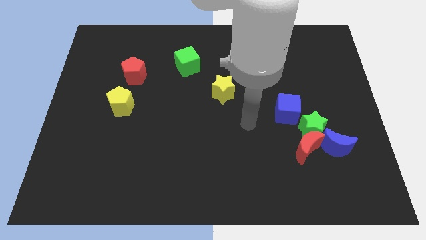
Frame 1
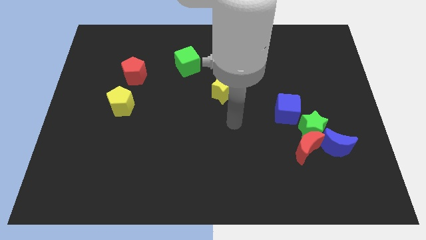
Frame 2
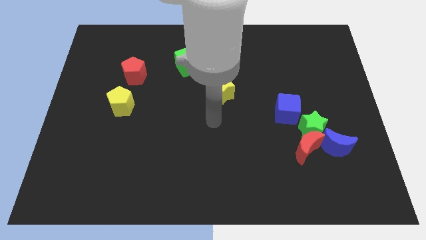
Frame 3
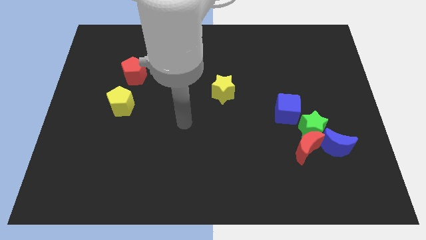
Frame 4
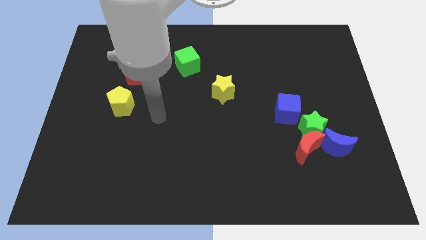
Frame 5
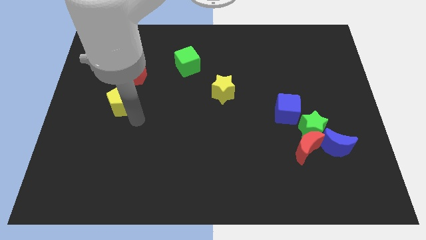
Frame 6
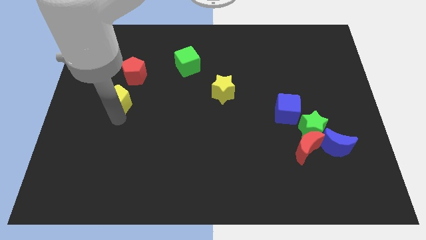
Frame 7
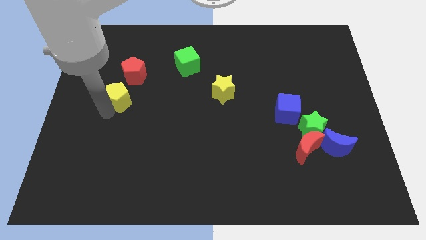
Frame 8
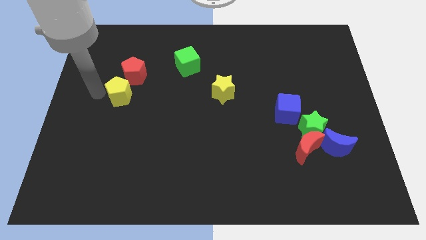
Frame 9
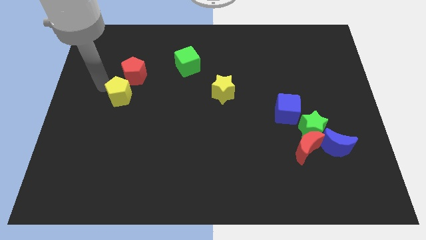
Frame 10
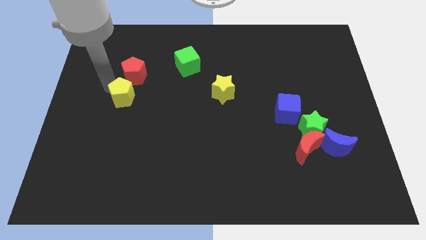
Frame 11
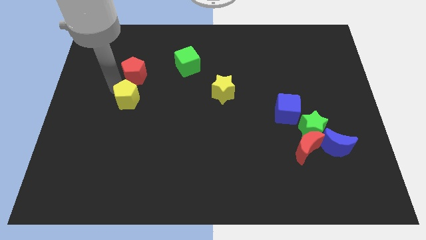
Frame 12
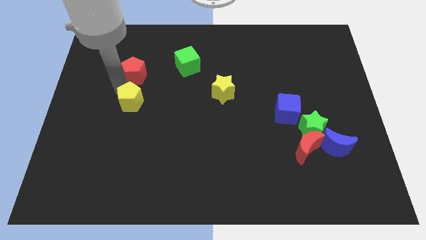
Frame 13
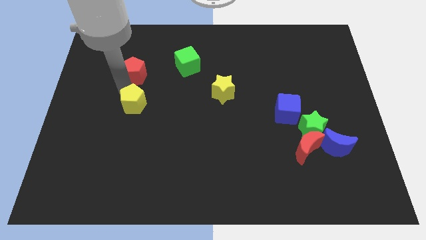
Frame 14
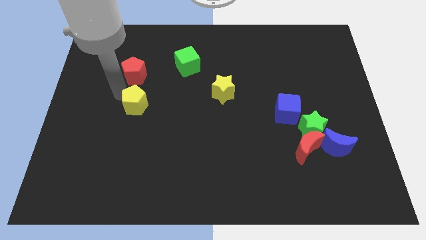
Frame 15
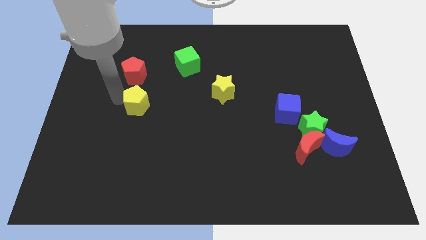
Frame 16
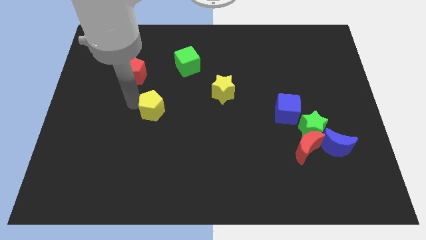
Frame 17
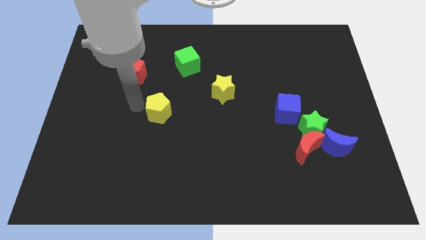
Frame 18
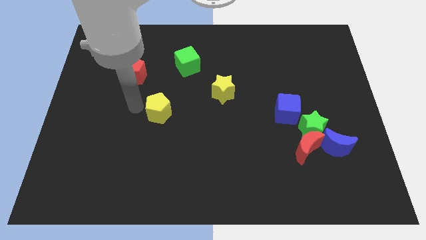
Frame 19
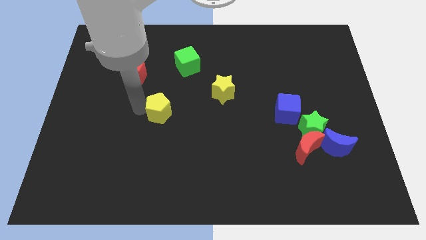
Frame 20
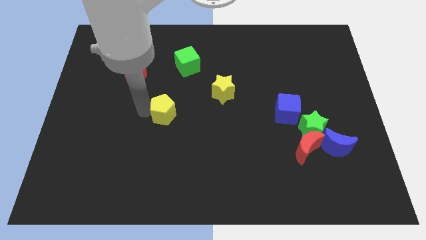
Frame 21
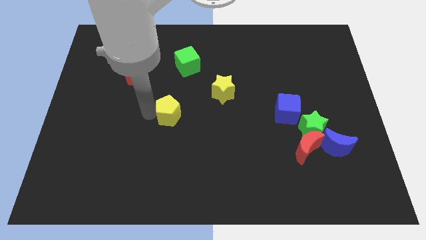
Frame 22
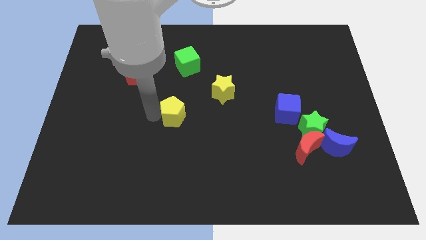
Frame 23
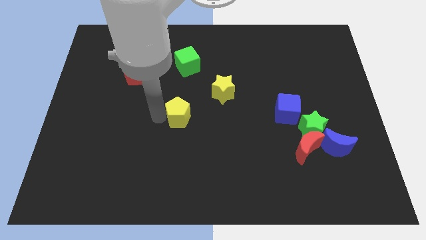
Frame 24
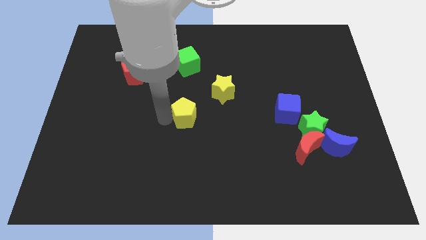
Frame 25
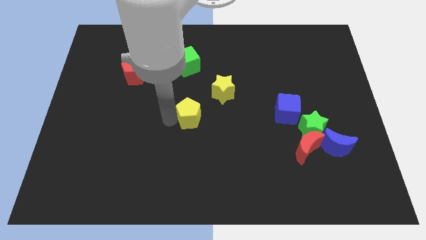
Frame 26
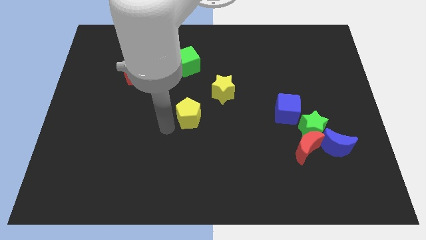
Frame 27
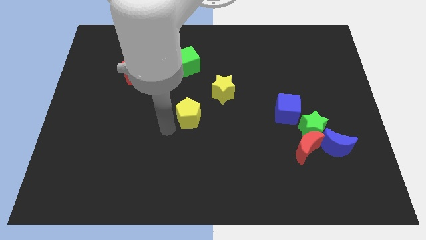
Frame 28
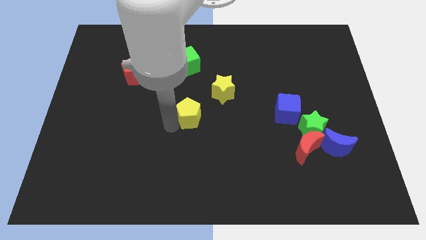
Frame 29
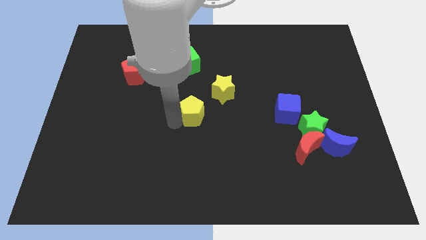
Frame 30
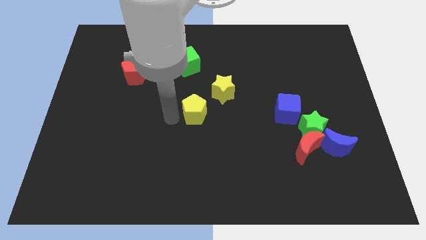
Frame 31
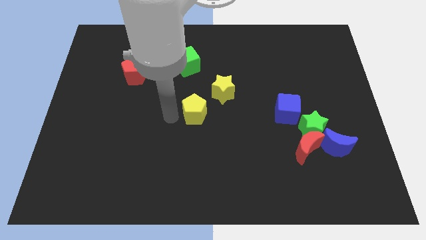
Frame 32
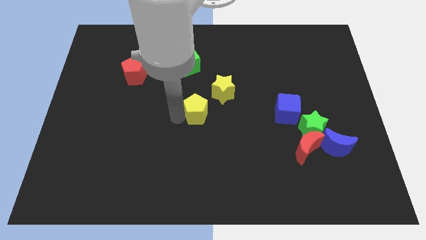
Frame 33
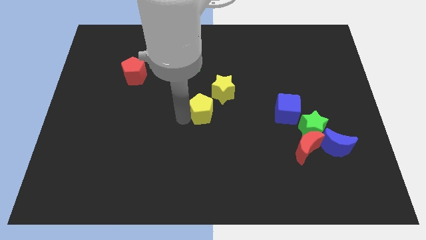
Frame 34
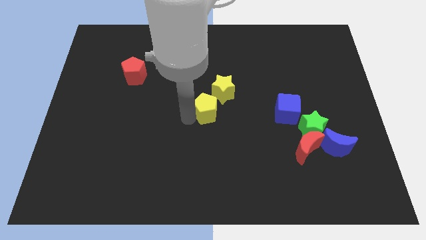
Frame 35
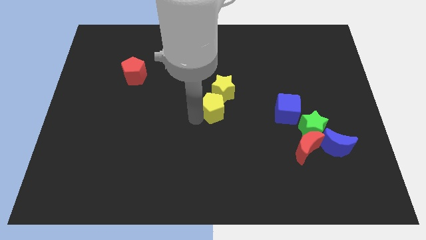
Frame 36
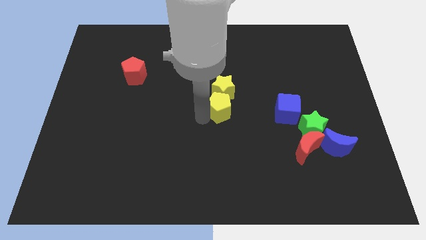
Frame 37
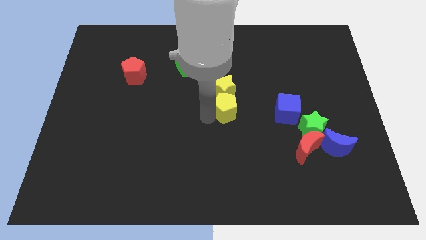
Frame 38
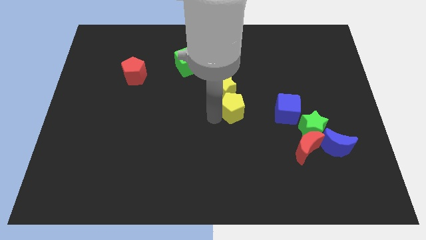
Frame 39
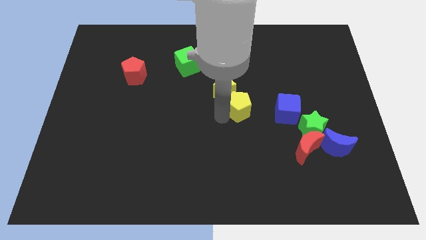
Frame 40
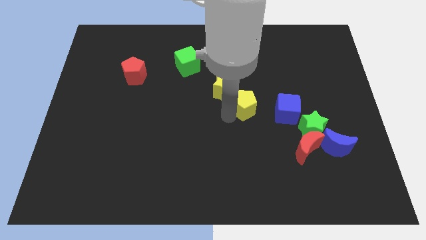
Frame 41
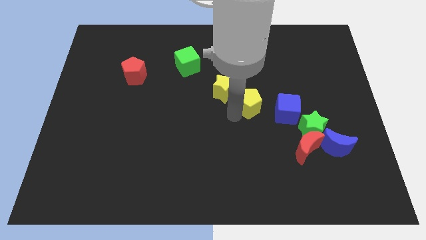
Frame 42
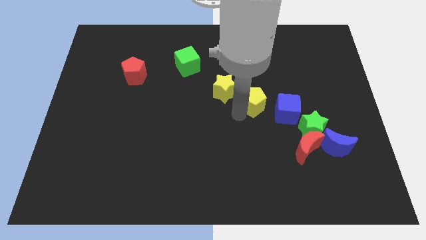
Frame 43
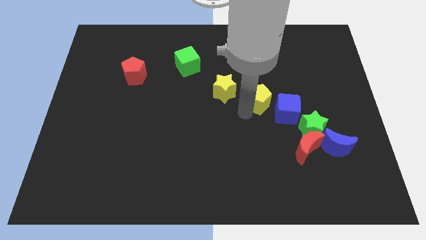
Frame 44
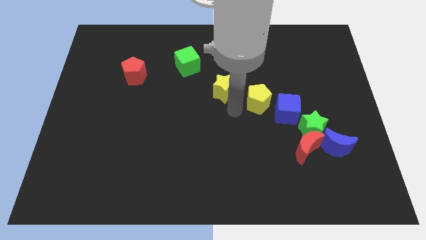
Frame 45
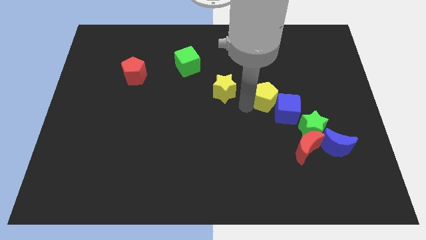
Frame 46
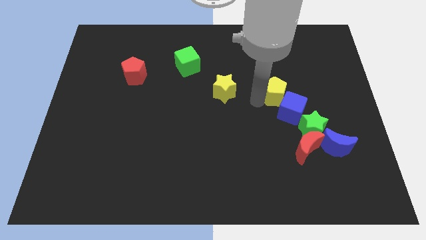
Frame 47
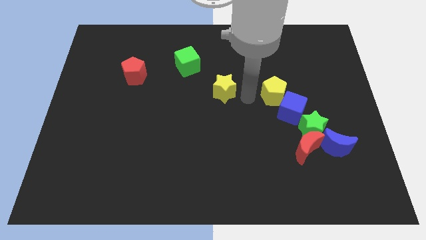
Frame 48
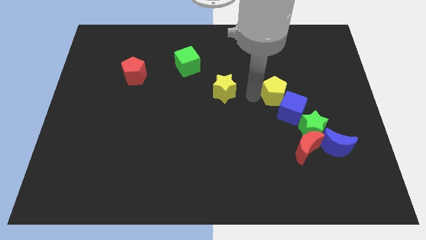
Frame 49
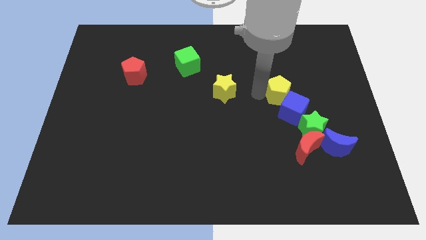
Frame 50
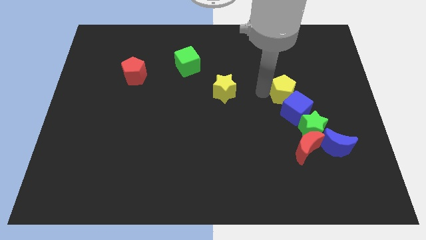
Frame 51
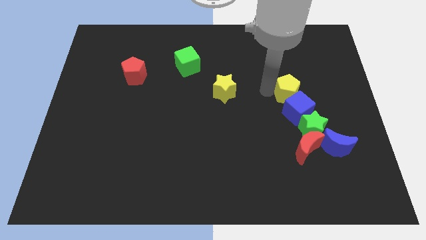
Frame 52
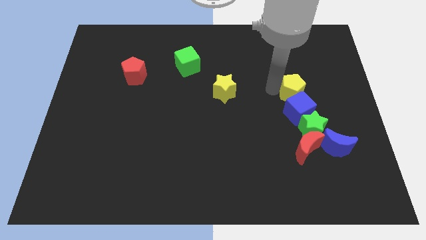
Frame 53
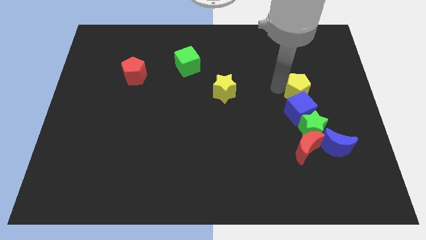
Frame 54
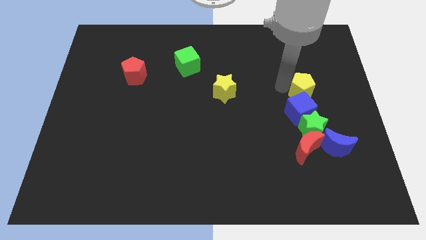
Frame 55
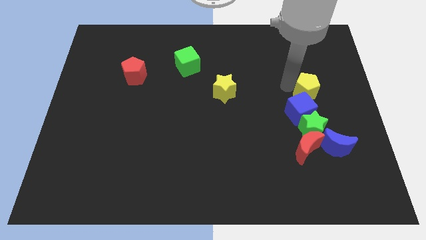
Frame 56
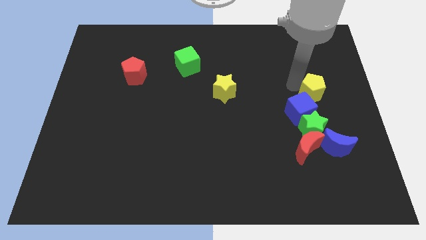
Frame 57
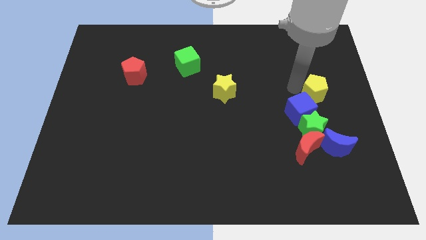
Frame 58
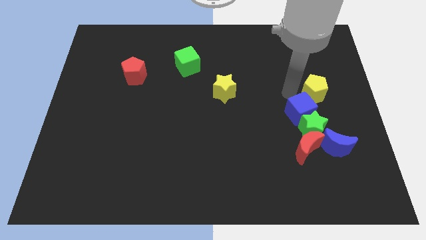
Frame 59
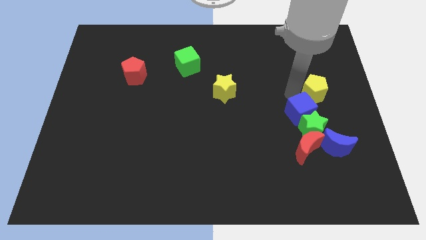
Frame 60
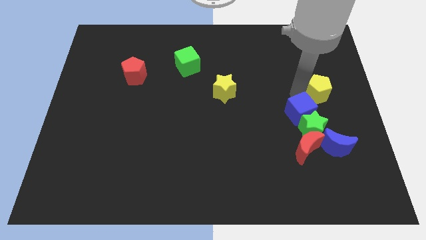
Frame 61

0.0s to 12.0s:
slide the yellow pentagon to the right side of the board
